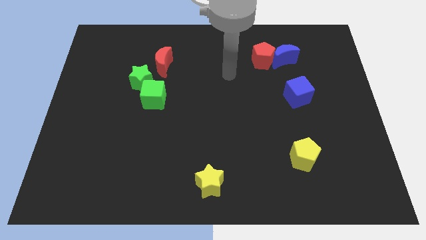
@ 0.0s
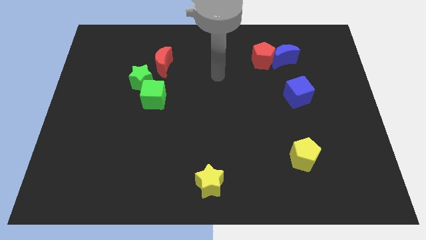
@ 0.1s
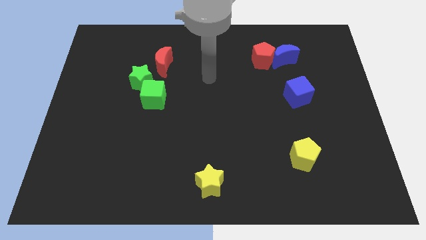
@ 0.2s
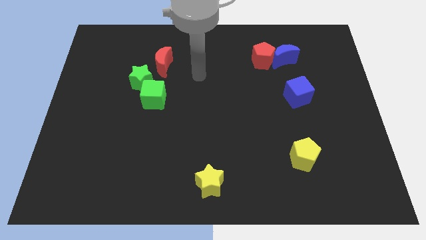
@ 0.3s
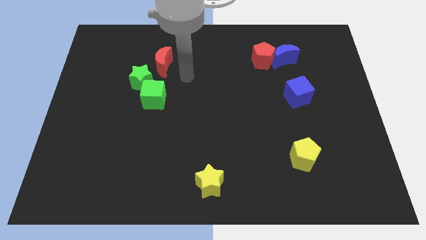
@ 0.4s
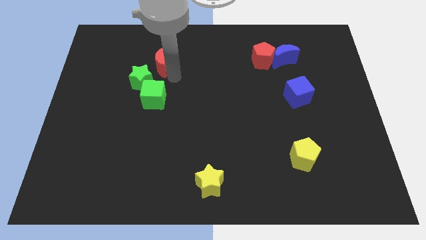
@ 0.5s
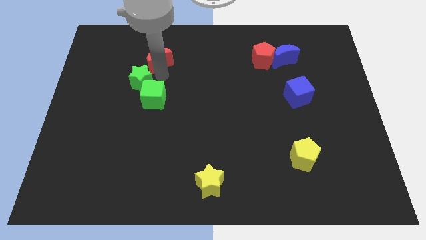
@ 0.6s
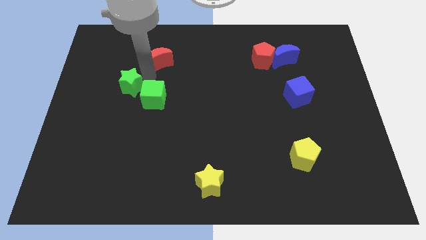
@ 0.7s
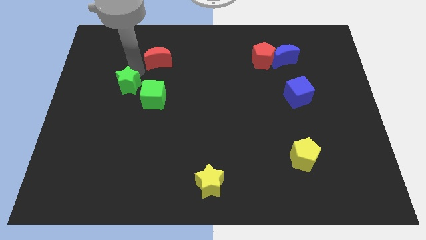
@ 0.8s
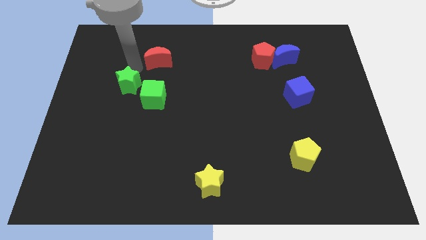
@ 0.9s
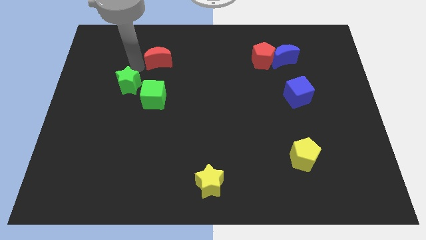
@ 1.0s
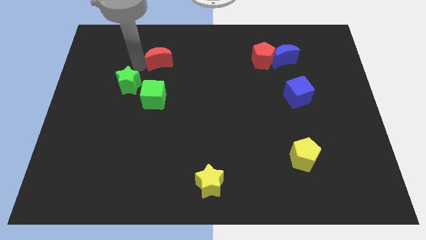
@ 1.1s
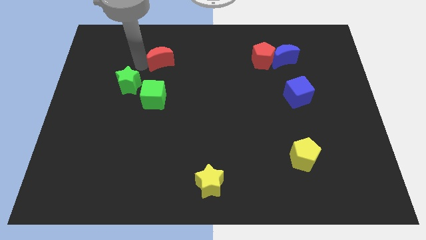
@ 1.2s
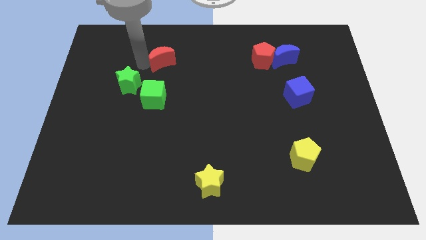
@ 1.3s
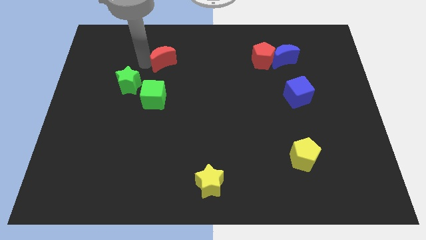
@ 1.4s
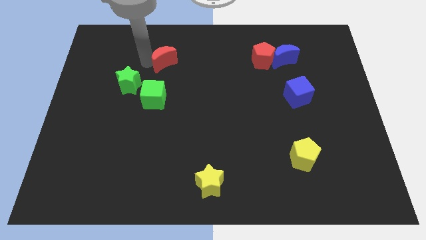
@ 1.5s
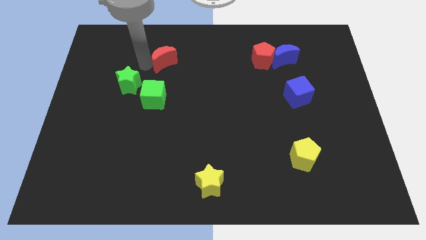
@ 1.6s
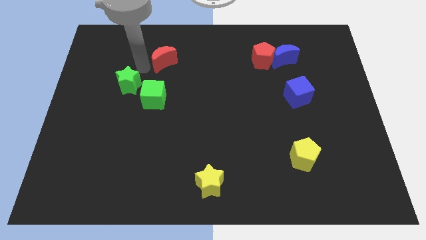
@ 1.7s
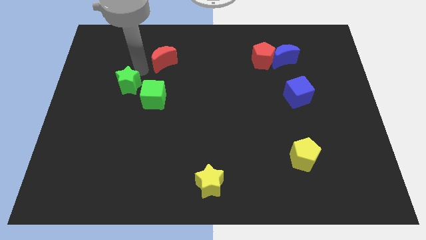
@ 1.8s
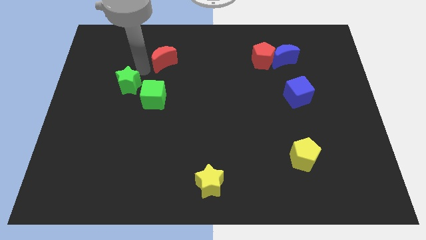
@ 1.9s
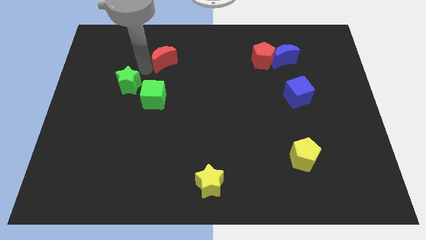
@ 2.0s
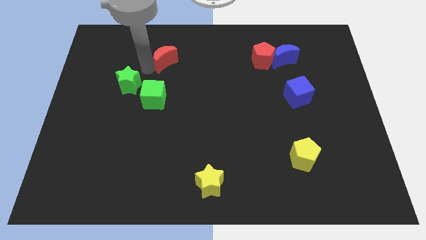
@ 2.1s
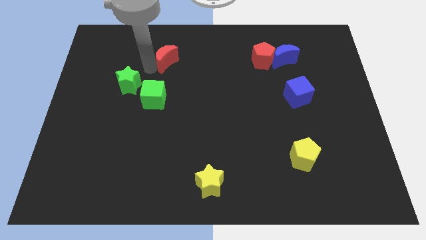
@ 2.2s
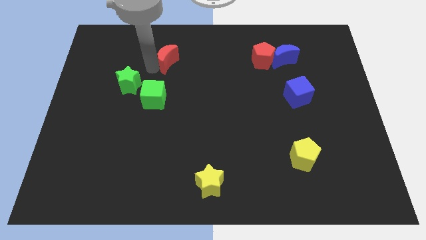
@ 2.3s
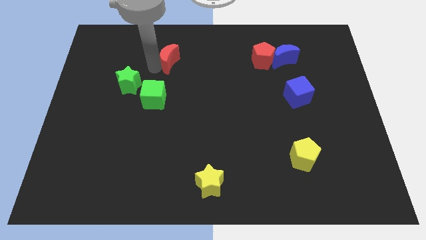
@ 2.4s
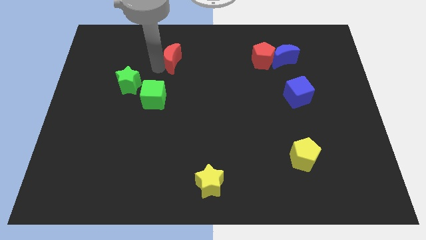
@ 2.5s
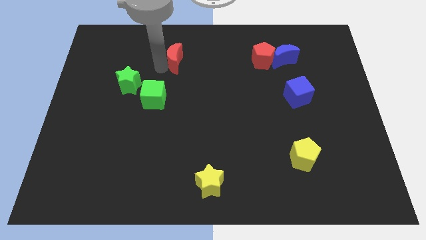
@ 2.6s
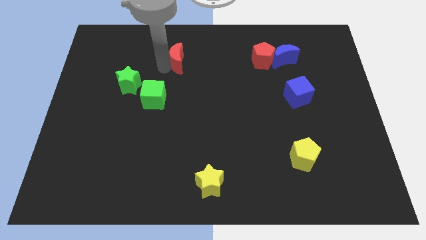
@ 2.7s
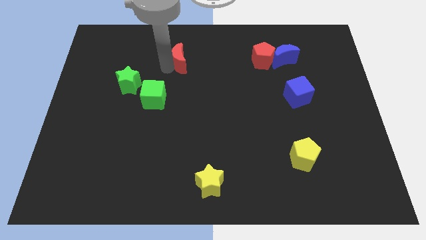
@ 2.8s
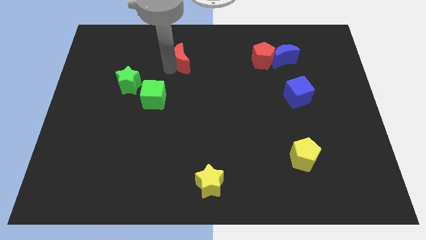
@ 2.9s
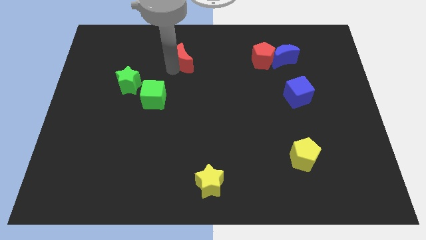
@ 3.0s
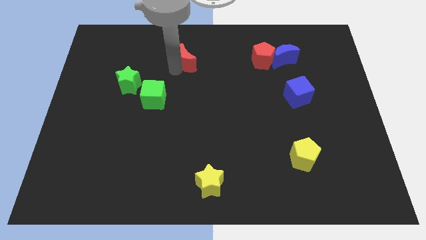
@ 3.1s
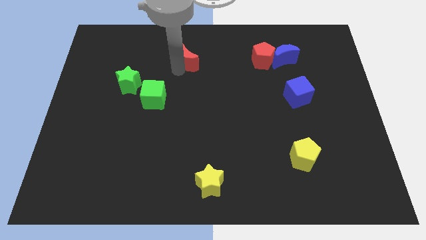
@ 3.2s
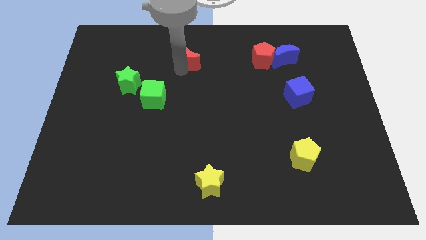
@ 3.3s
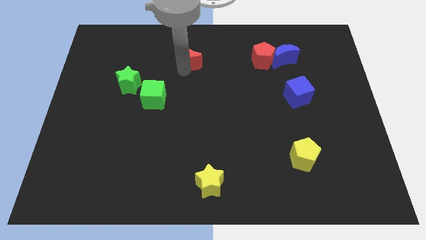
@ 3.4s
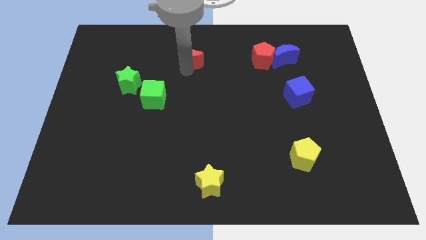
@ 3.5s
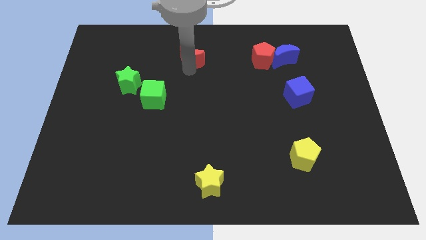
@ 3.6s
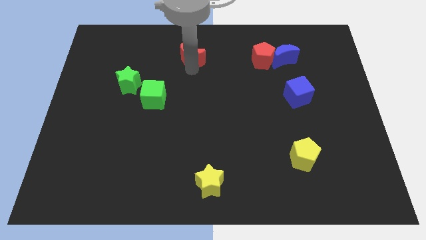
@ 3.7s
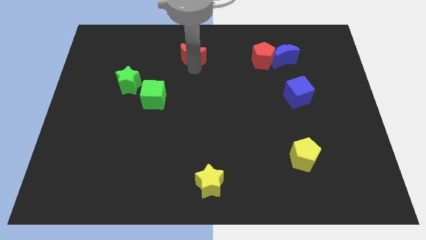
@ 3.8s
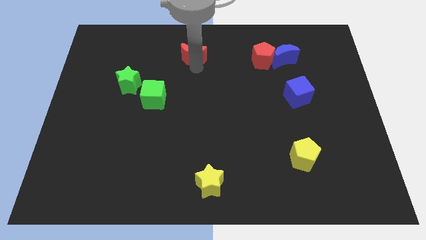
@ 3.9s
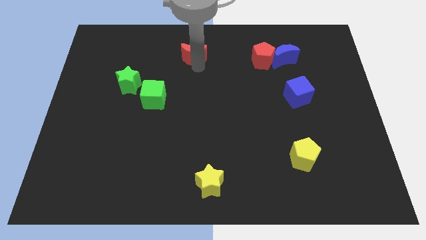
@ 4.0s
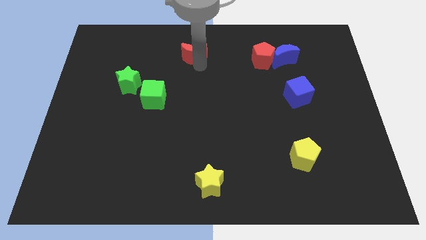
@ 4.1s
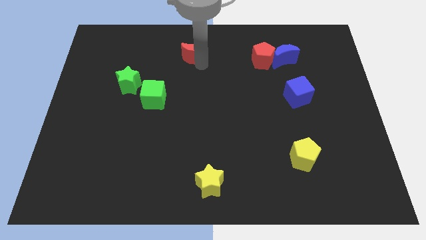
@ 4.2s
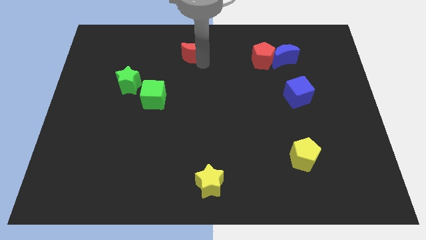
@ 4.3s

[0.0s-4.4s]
slide the red moon to the towards your base

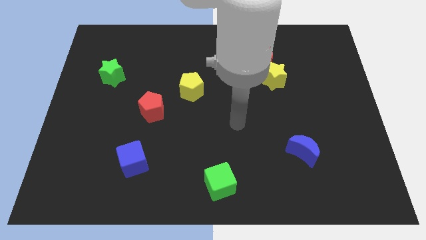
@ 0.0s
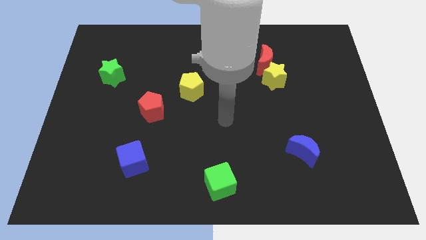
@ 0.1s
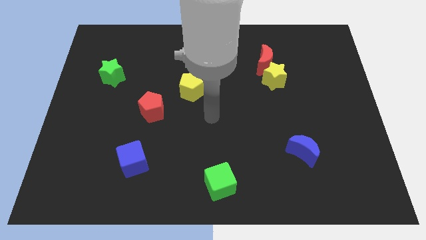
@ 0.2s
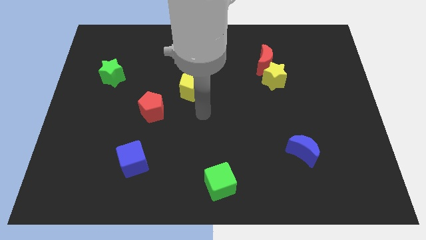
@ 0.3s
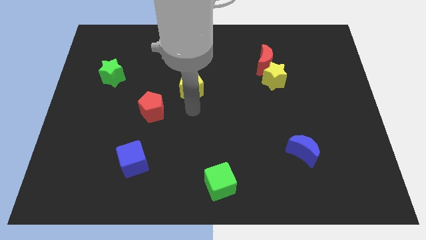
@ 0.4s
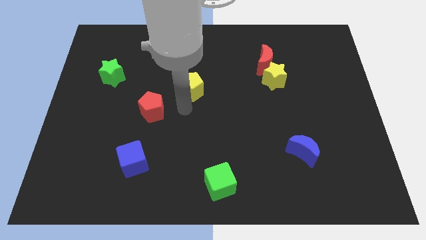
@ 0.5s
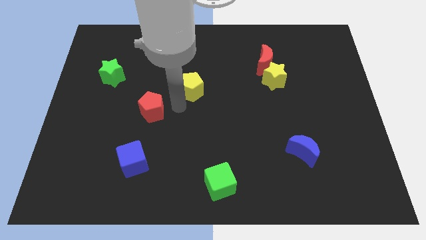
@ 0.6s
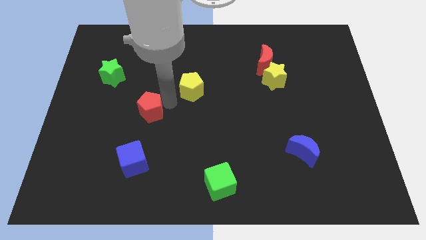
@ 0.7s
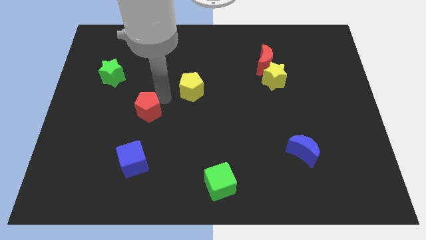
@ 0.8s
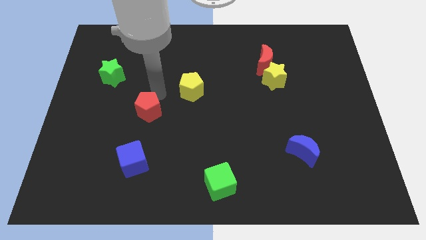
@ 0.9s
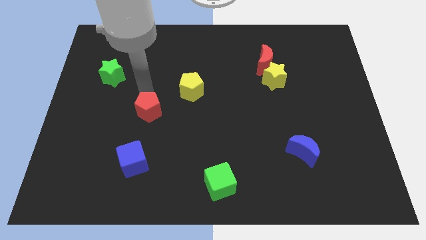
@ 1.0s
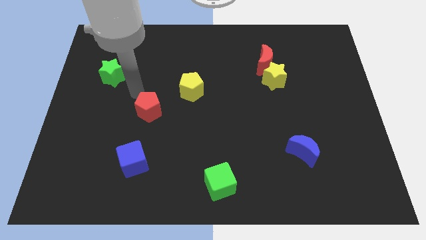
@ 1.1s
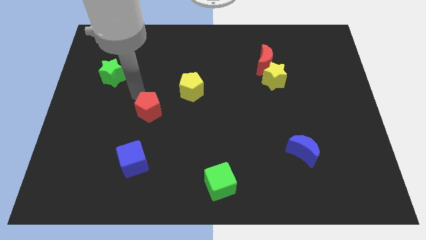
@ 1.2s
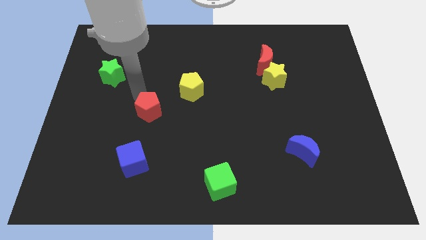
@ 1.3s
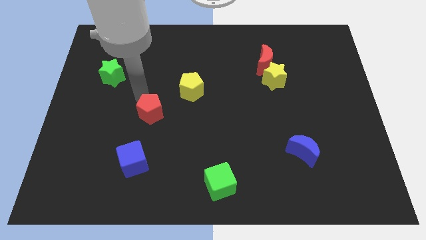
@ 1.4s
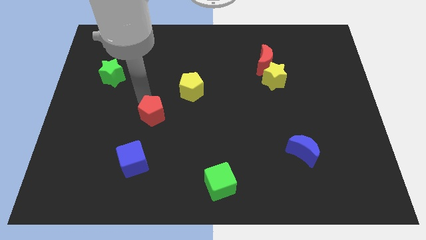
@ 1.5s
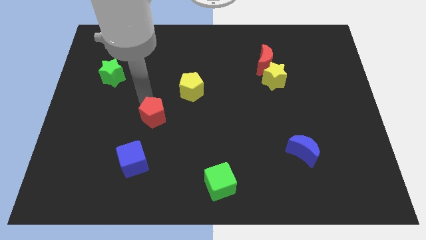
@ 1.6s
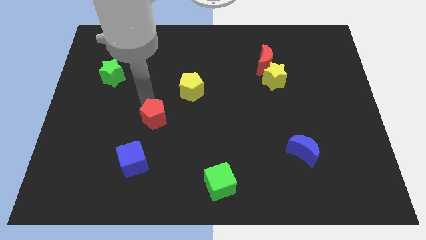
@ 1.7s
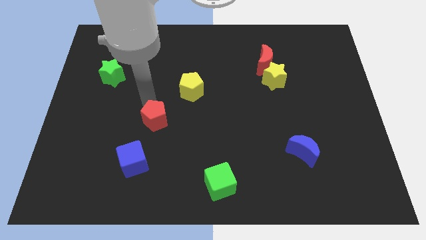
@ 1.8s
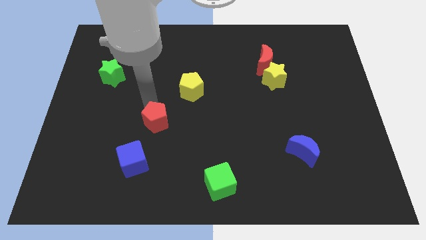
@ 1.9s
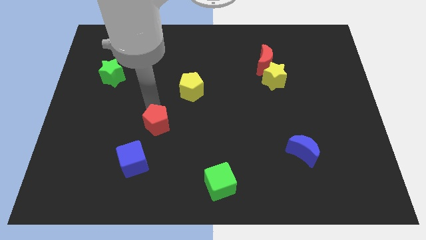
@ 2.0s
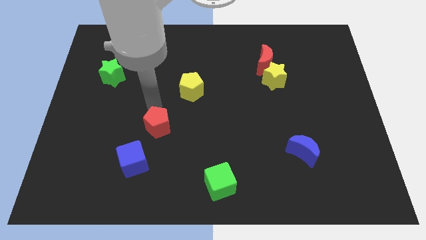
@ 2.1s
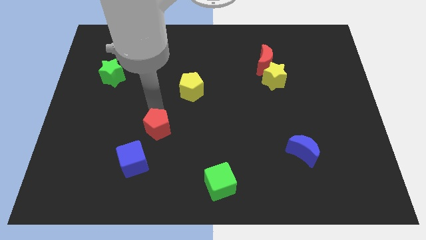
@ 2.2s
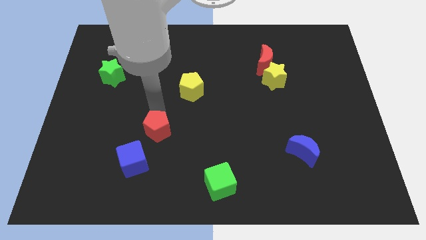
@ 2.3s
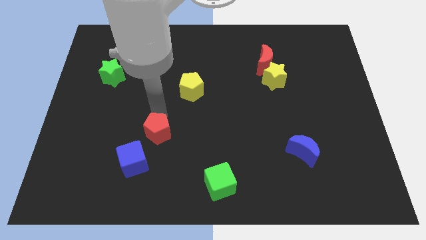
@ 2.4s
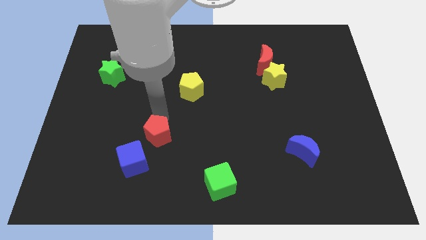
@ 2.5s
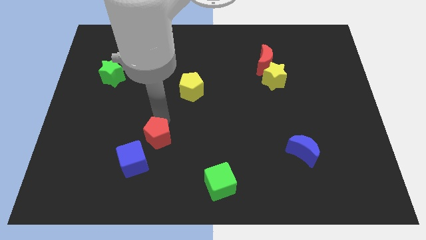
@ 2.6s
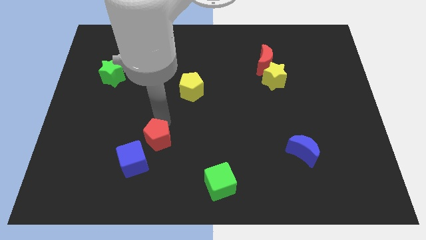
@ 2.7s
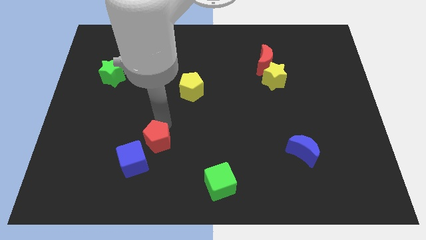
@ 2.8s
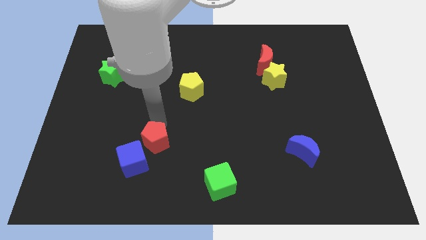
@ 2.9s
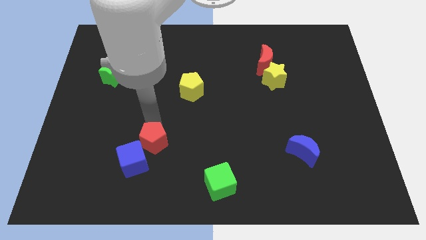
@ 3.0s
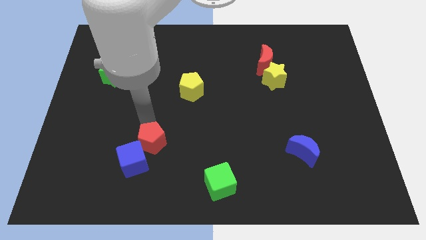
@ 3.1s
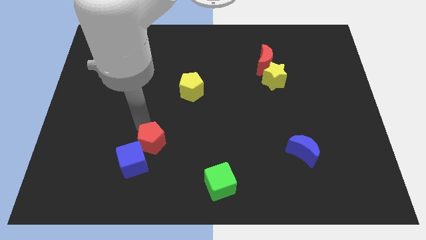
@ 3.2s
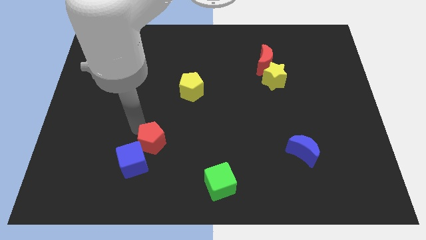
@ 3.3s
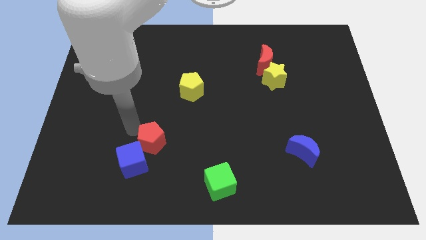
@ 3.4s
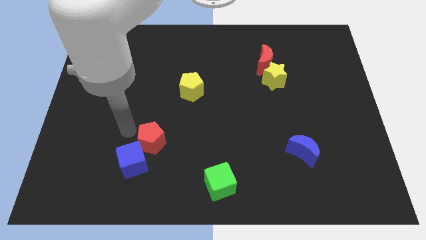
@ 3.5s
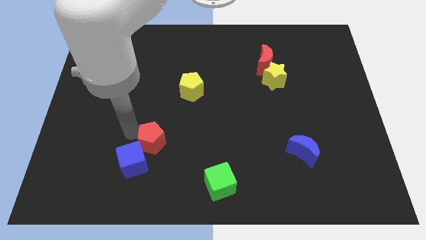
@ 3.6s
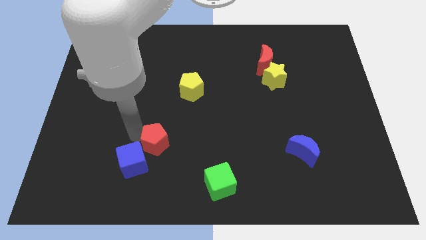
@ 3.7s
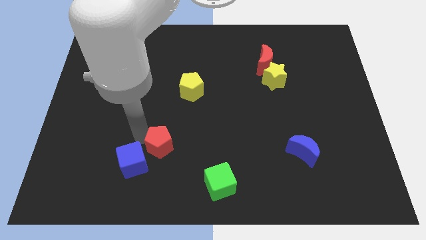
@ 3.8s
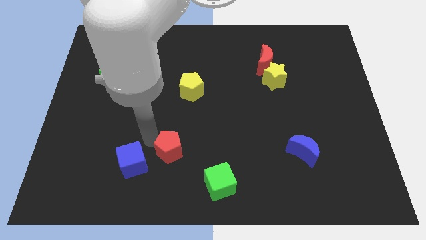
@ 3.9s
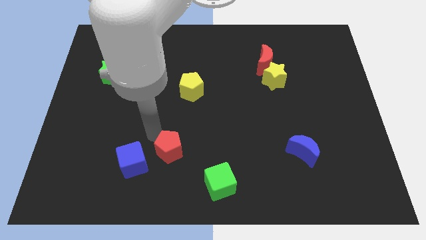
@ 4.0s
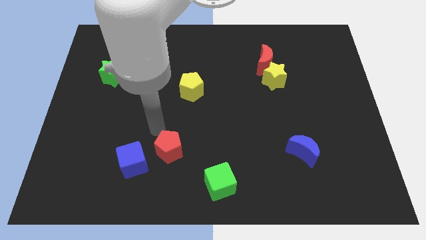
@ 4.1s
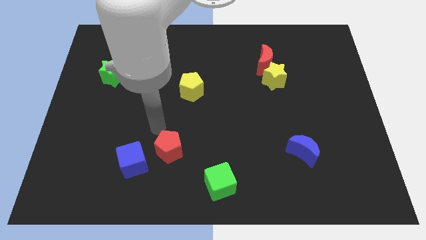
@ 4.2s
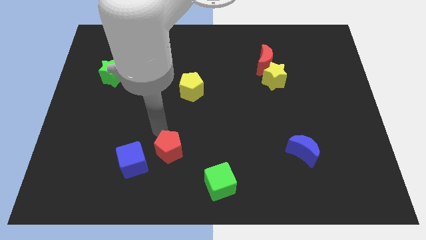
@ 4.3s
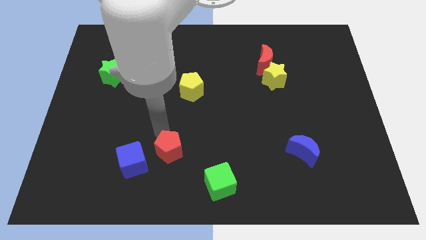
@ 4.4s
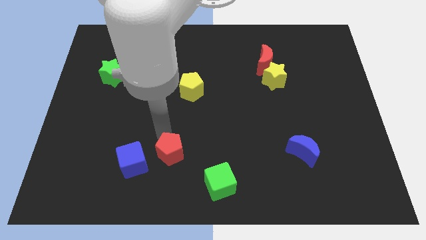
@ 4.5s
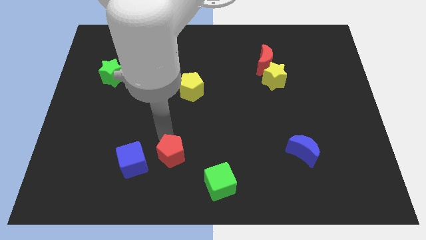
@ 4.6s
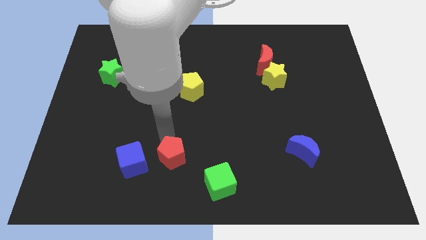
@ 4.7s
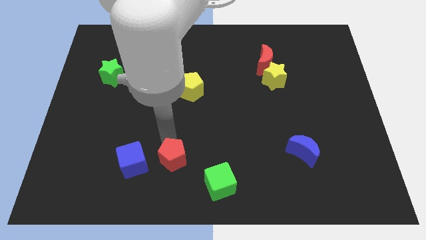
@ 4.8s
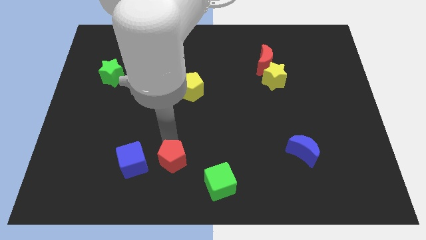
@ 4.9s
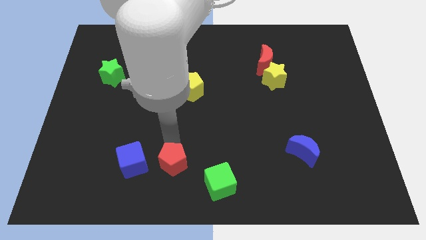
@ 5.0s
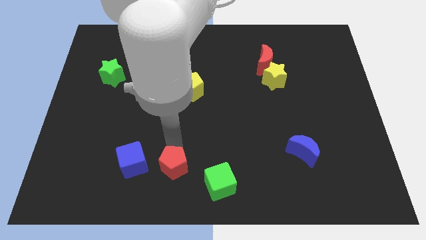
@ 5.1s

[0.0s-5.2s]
put the red pentagon to the bottom
